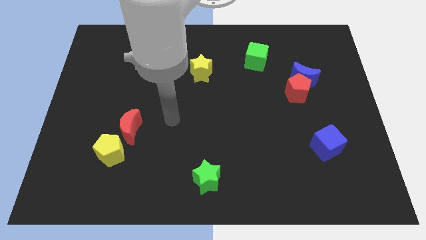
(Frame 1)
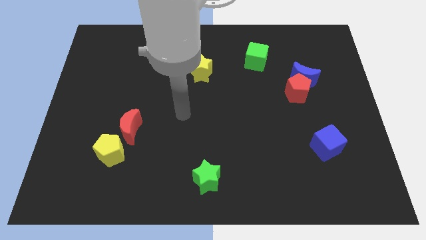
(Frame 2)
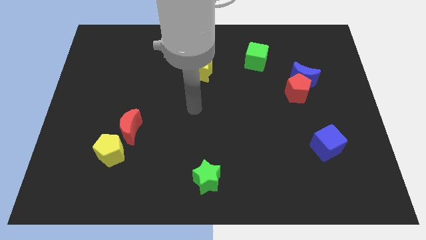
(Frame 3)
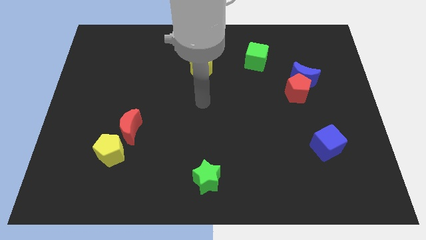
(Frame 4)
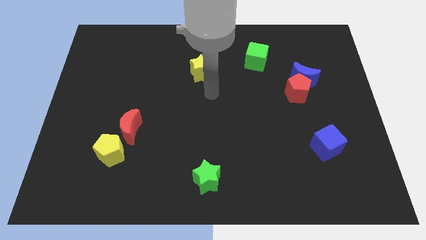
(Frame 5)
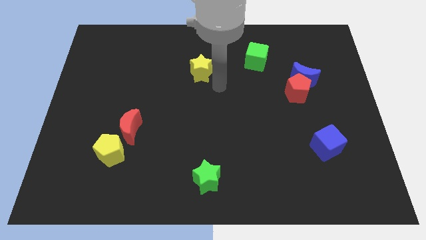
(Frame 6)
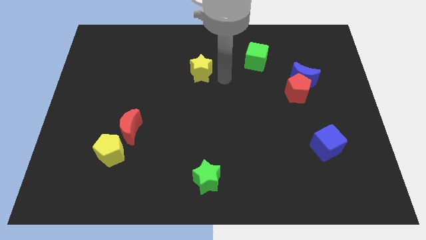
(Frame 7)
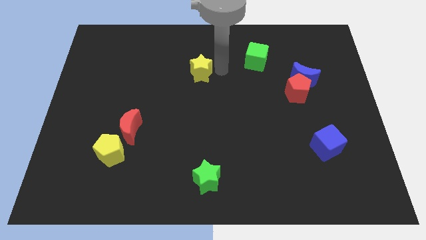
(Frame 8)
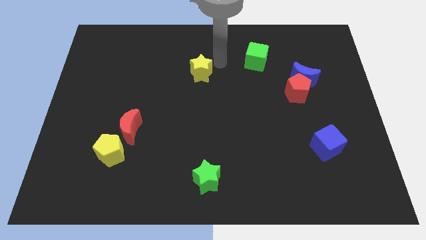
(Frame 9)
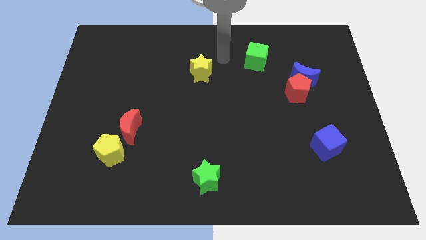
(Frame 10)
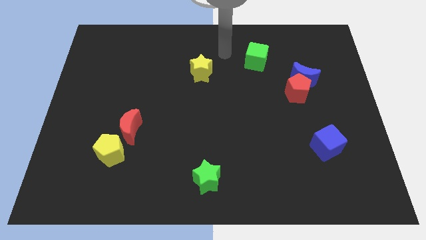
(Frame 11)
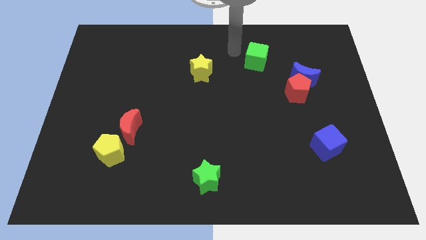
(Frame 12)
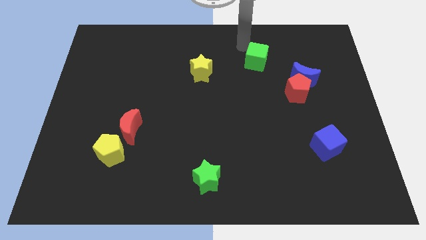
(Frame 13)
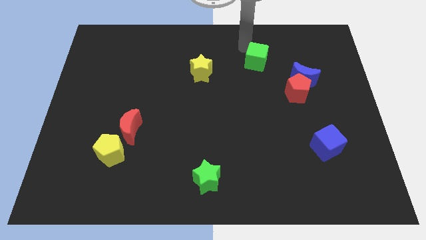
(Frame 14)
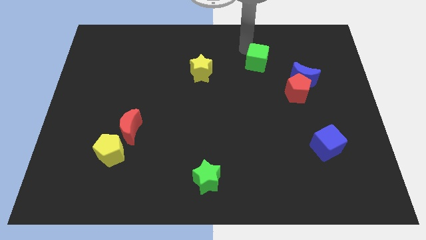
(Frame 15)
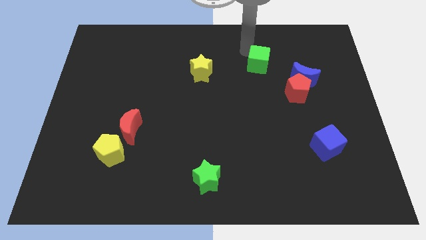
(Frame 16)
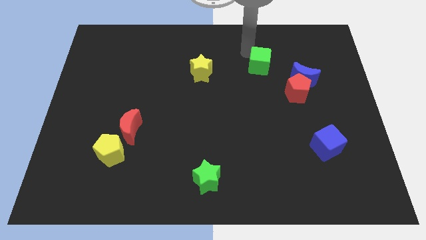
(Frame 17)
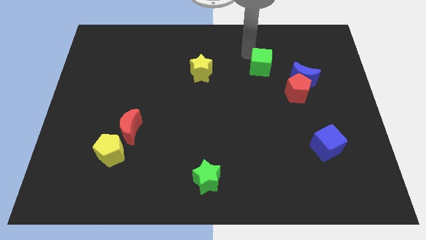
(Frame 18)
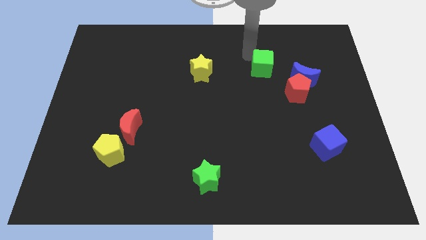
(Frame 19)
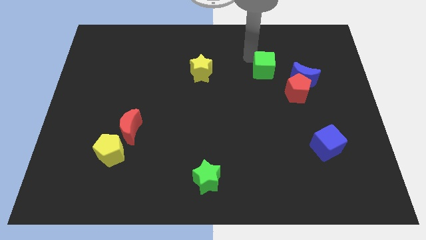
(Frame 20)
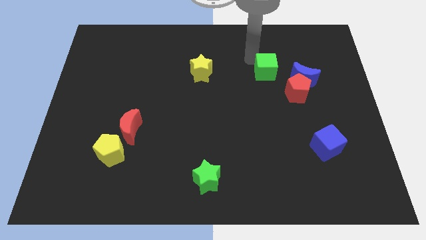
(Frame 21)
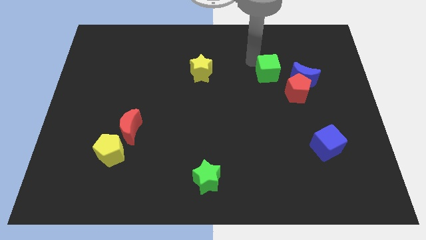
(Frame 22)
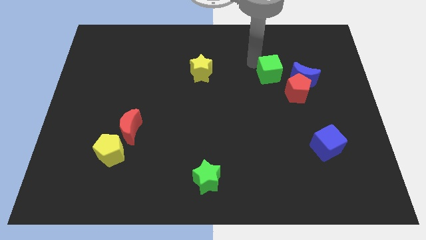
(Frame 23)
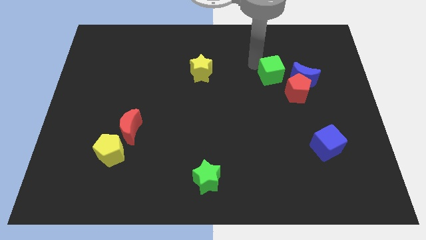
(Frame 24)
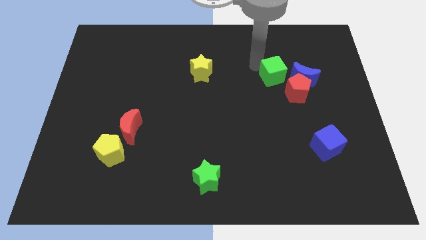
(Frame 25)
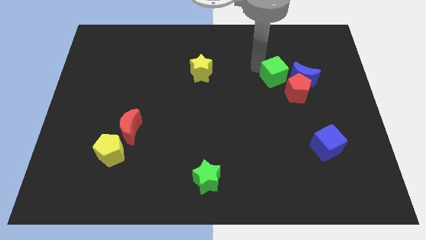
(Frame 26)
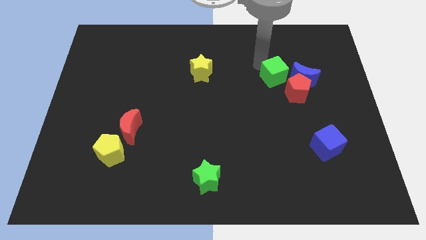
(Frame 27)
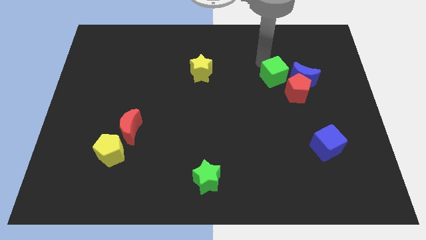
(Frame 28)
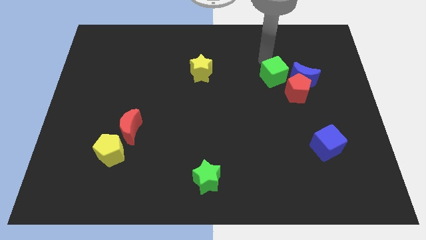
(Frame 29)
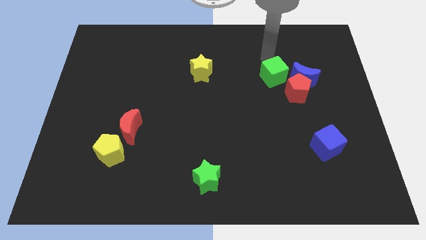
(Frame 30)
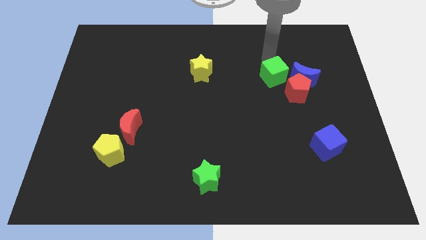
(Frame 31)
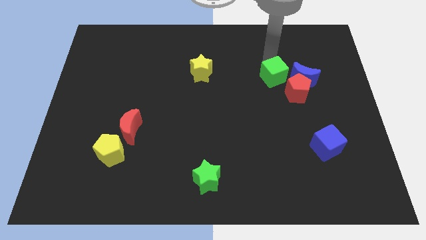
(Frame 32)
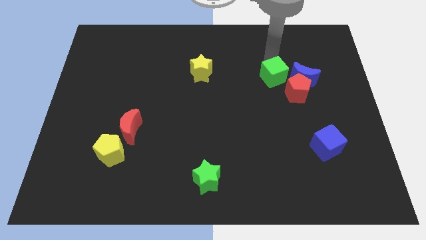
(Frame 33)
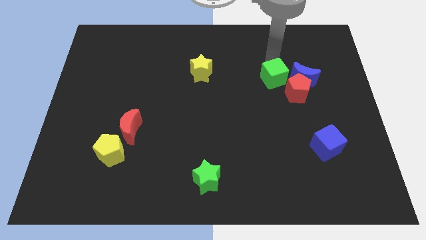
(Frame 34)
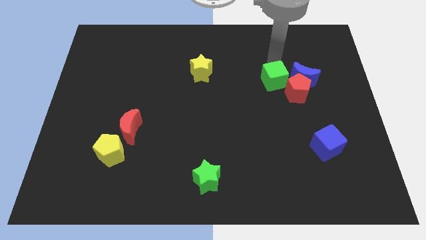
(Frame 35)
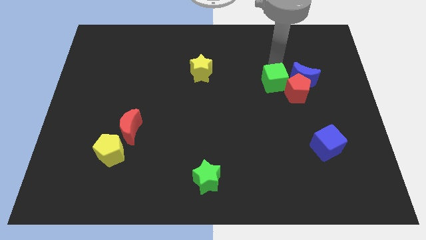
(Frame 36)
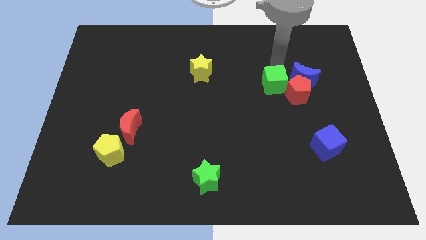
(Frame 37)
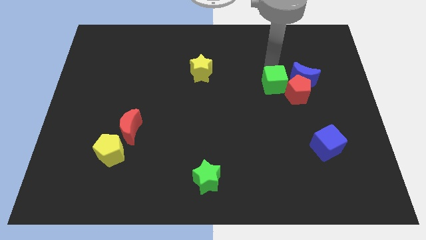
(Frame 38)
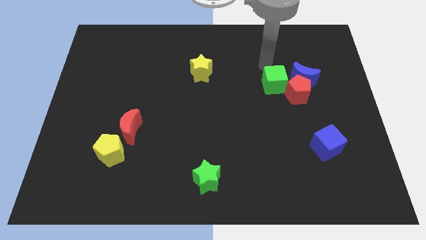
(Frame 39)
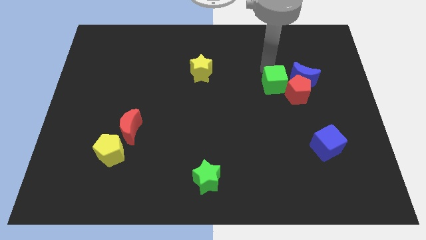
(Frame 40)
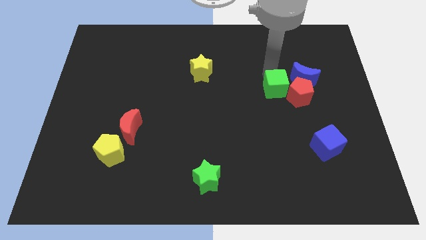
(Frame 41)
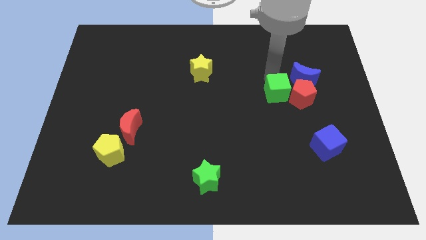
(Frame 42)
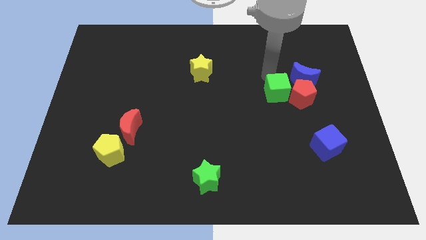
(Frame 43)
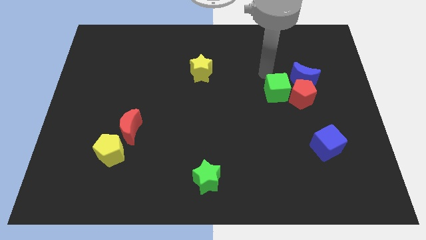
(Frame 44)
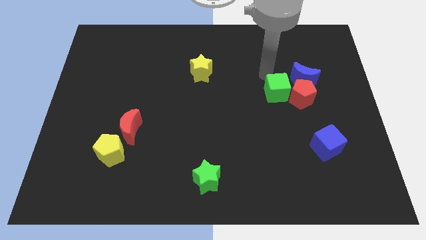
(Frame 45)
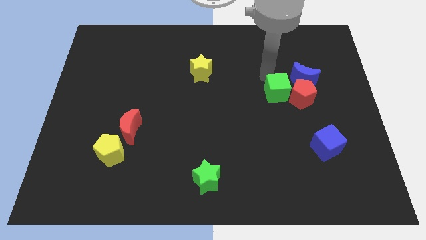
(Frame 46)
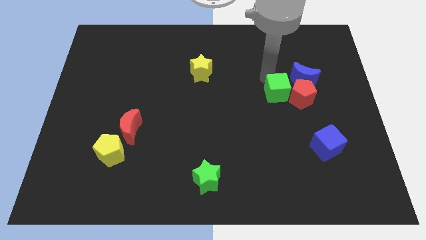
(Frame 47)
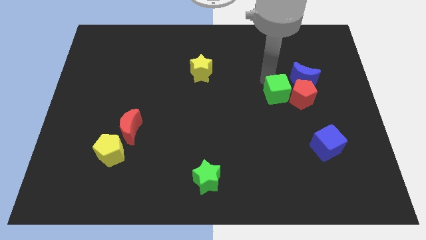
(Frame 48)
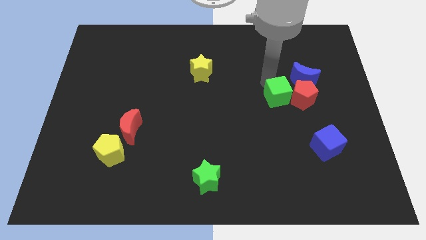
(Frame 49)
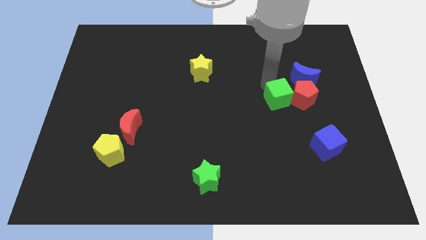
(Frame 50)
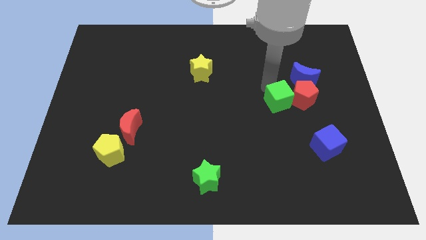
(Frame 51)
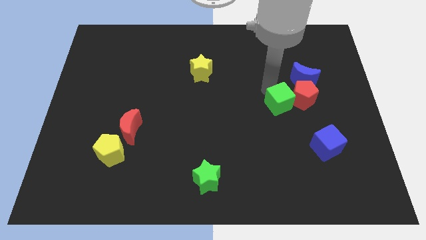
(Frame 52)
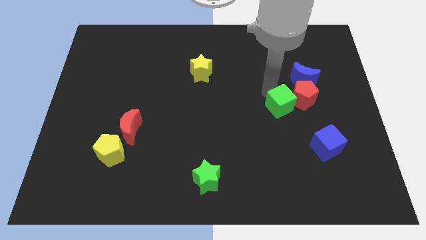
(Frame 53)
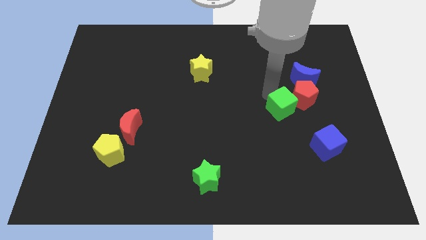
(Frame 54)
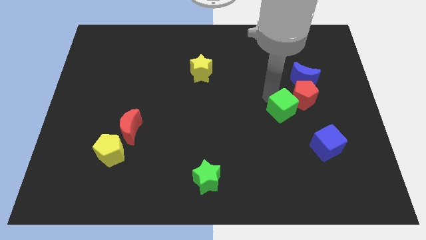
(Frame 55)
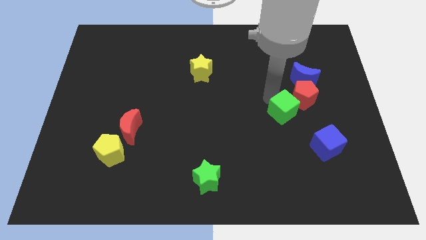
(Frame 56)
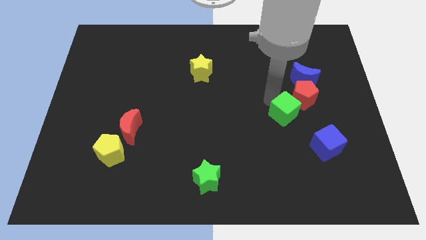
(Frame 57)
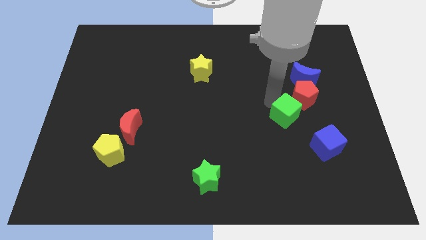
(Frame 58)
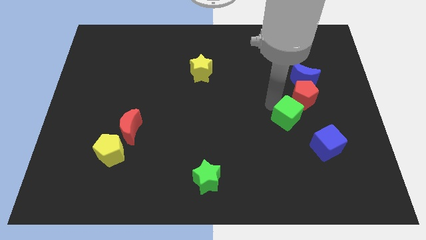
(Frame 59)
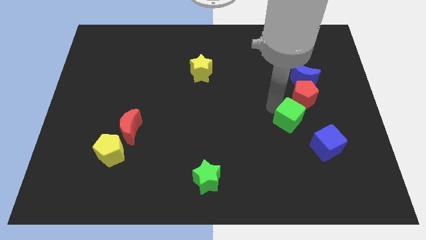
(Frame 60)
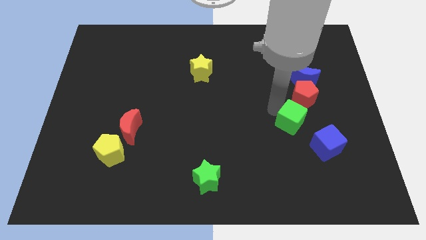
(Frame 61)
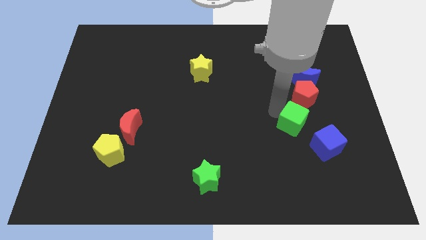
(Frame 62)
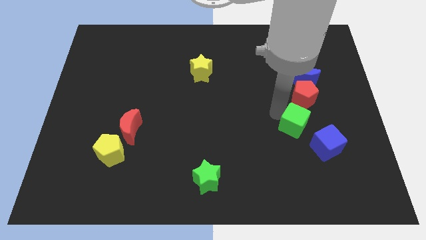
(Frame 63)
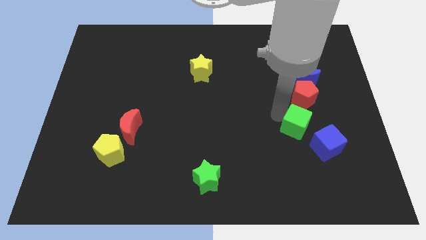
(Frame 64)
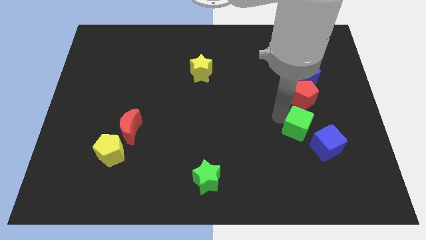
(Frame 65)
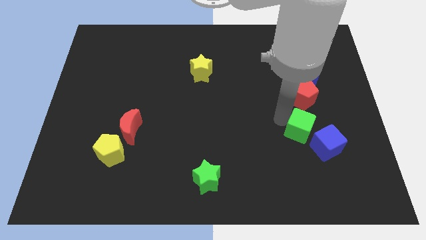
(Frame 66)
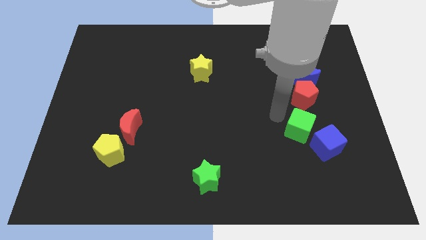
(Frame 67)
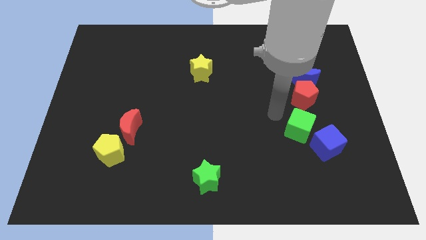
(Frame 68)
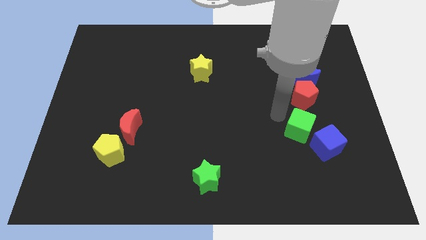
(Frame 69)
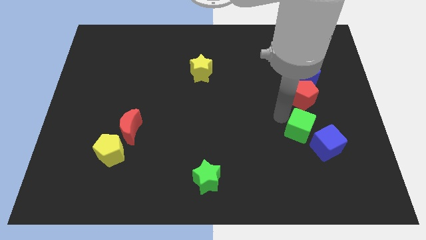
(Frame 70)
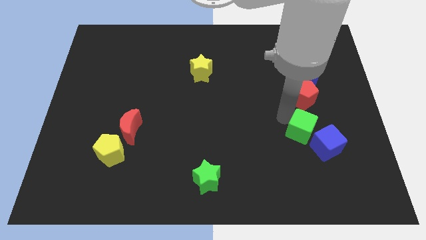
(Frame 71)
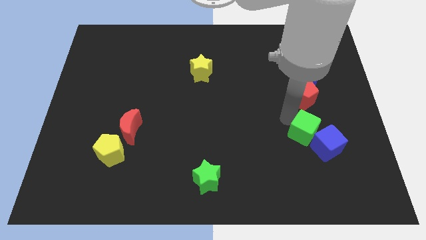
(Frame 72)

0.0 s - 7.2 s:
push the green cube next to the blue cube

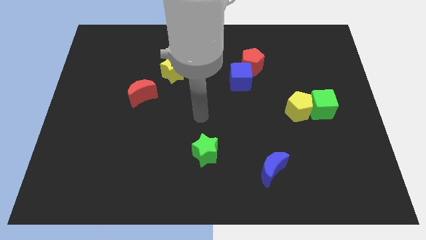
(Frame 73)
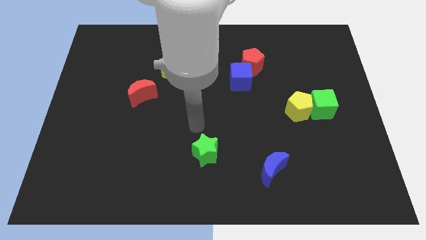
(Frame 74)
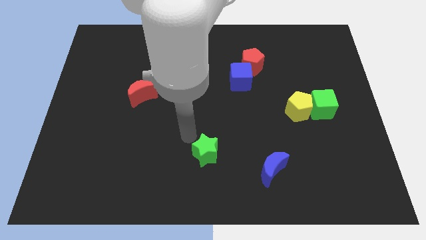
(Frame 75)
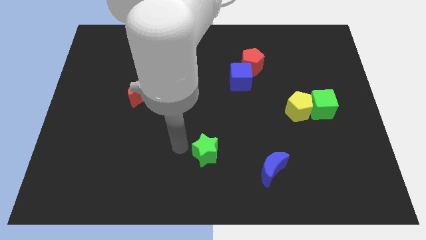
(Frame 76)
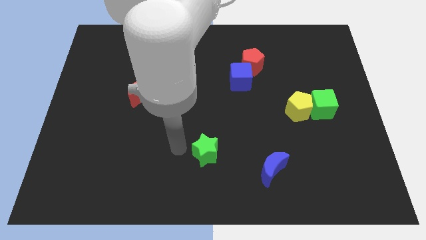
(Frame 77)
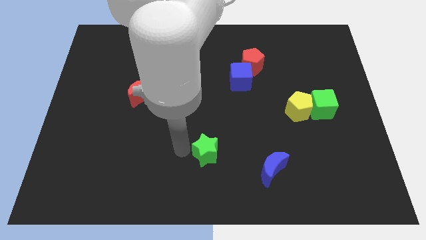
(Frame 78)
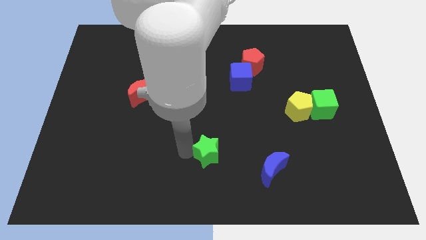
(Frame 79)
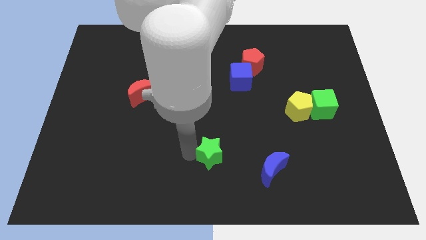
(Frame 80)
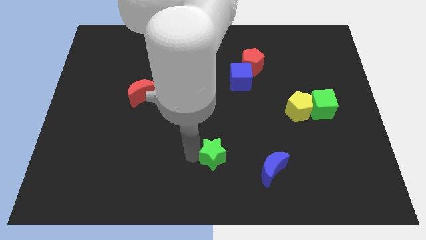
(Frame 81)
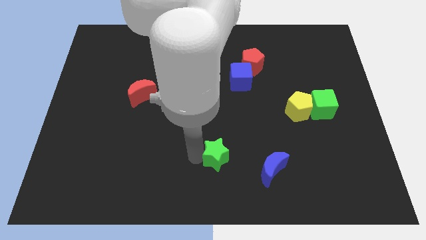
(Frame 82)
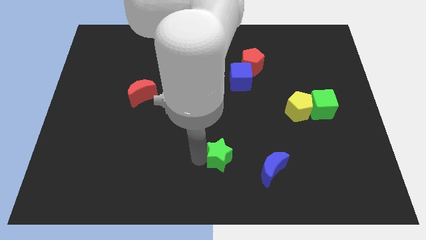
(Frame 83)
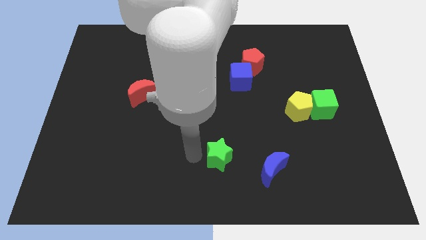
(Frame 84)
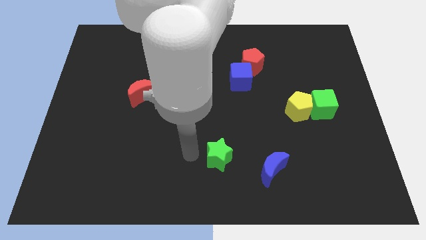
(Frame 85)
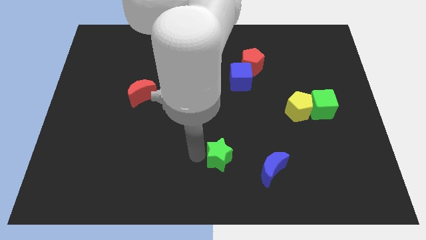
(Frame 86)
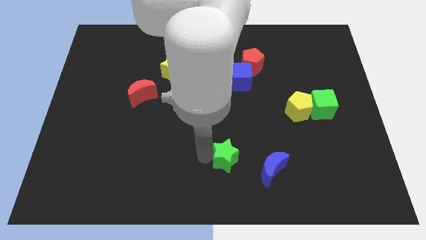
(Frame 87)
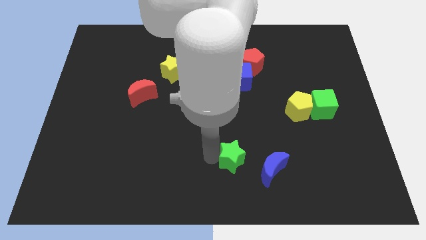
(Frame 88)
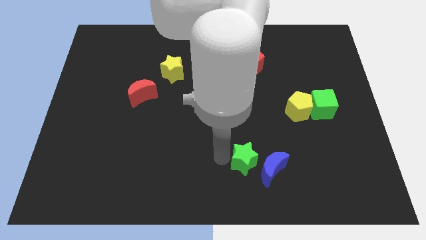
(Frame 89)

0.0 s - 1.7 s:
slide the green star next to the blue moon
